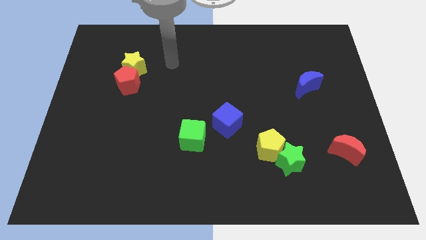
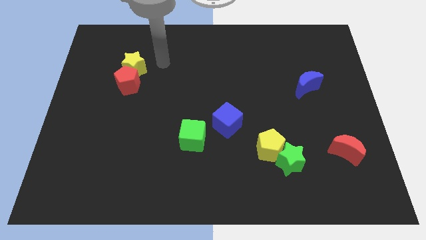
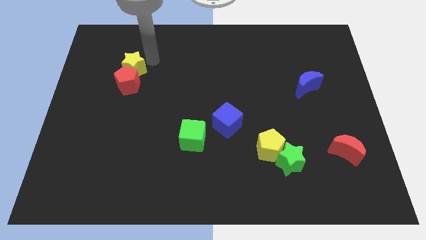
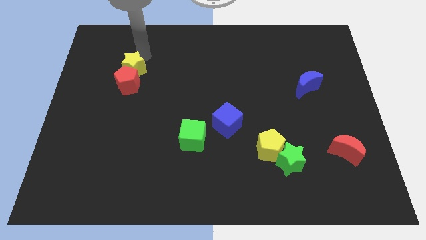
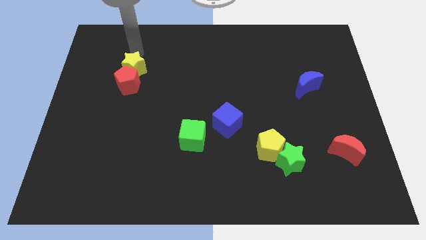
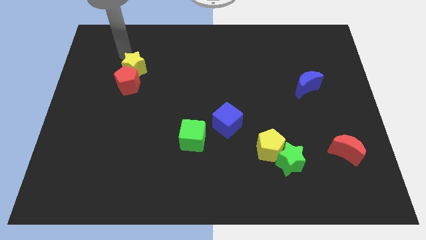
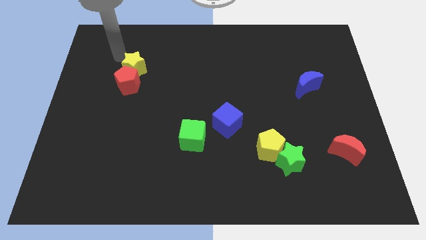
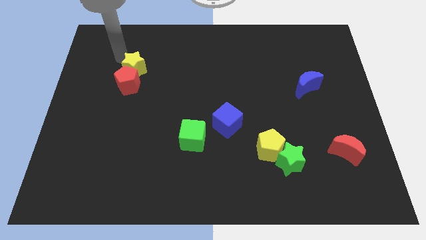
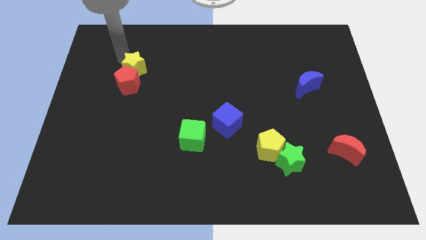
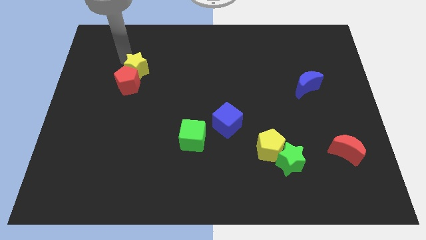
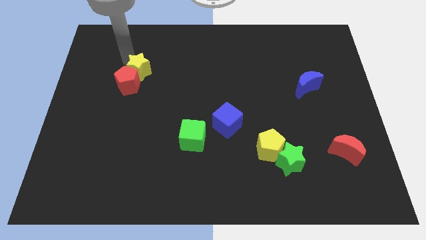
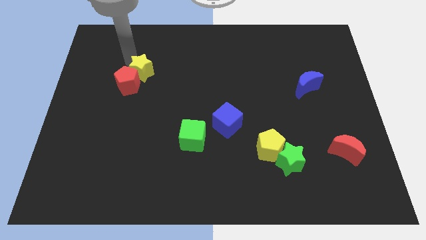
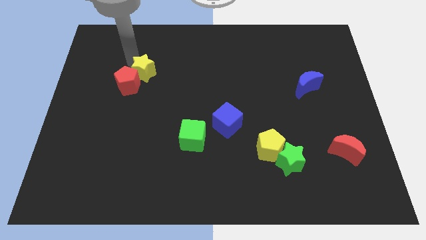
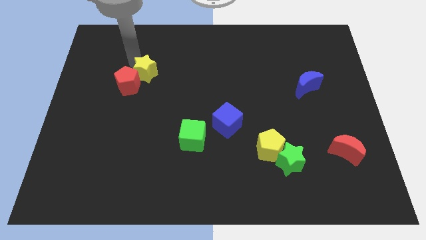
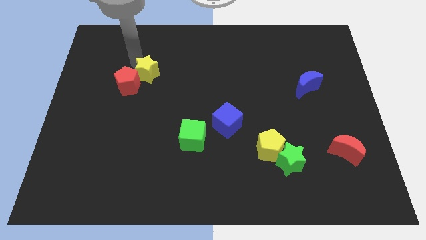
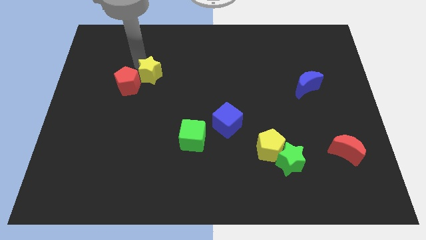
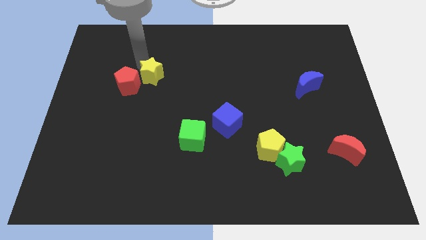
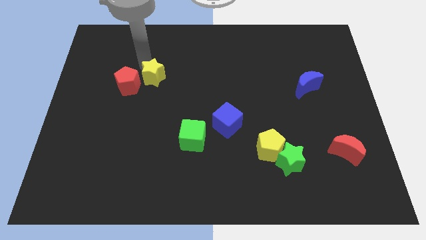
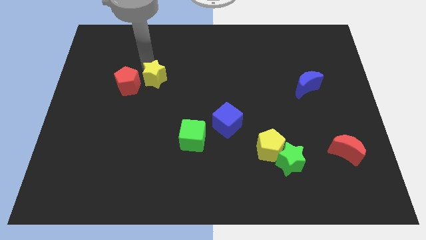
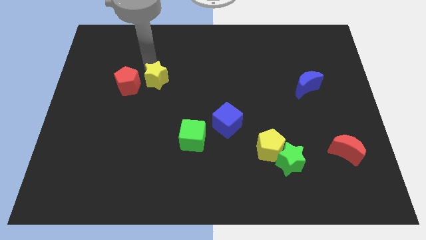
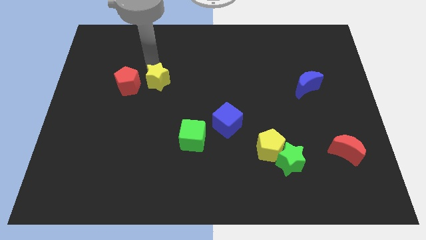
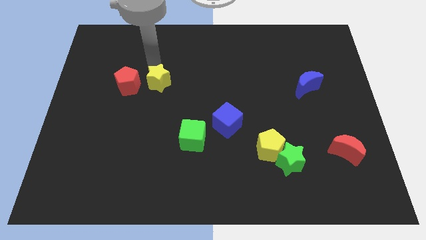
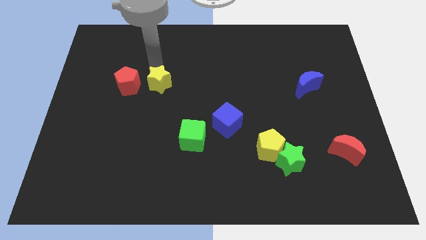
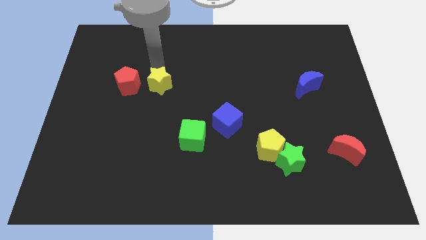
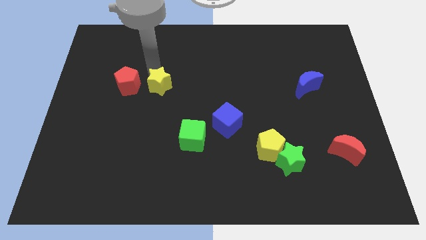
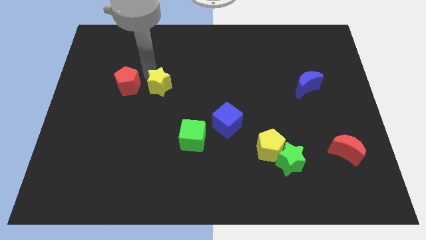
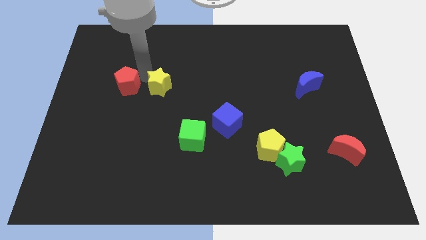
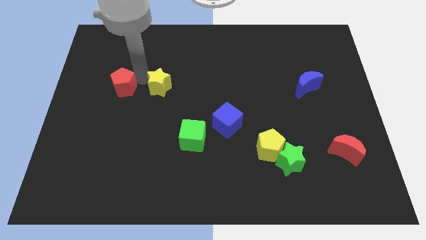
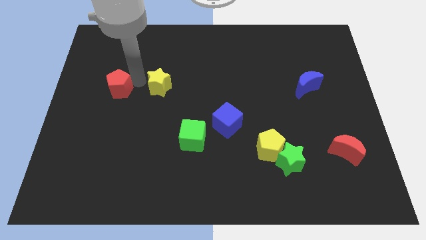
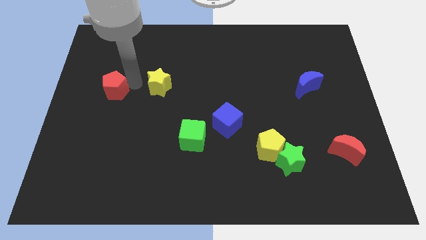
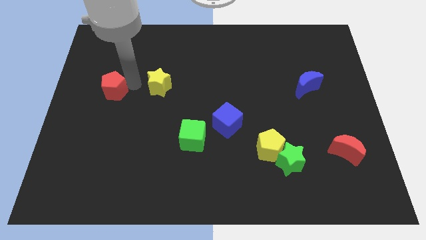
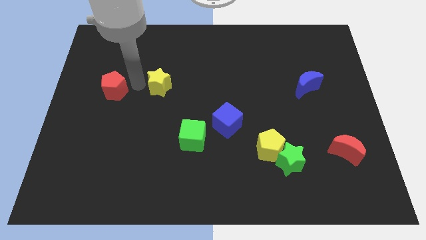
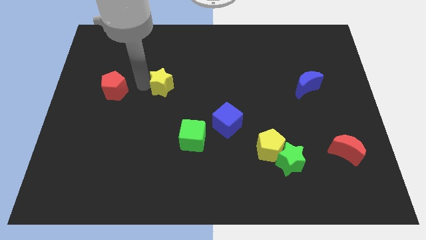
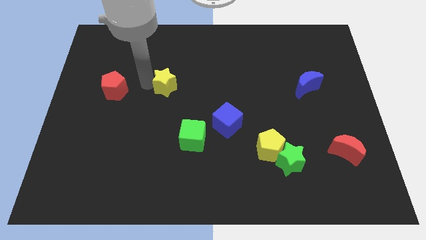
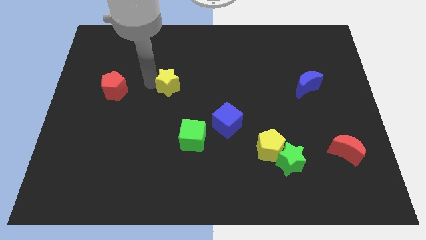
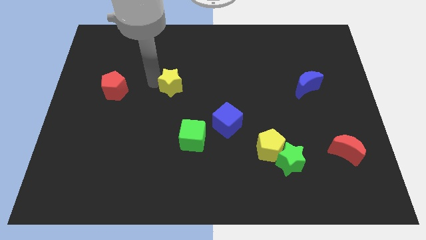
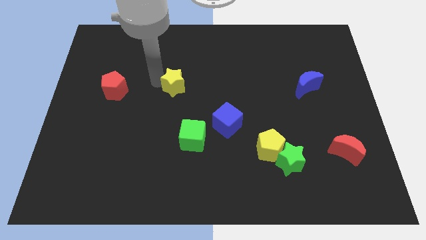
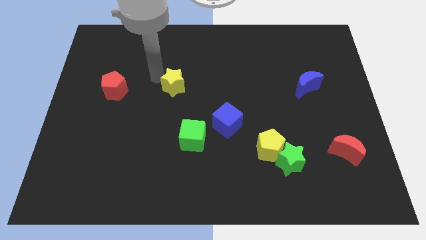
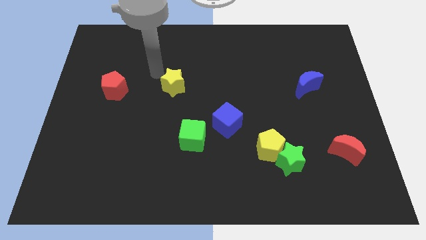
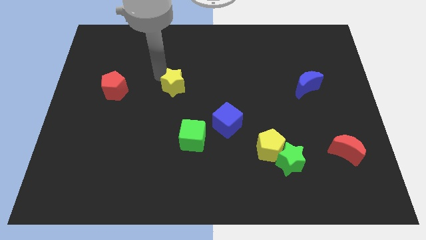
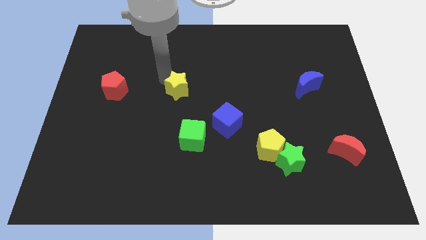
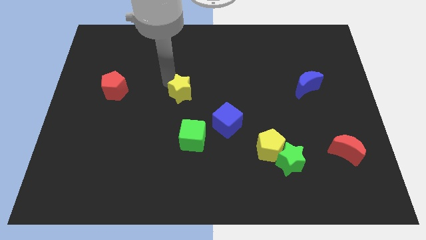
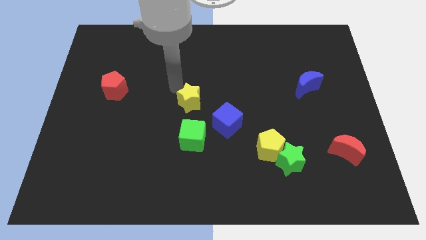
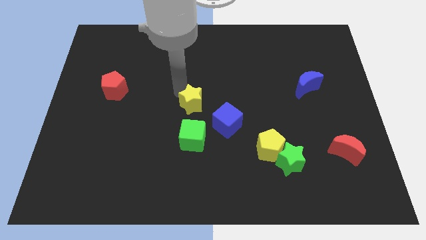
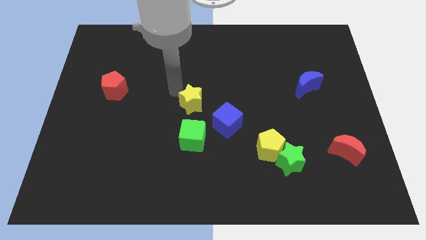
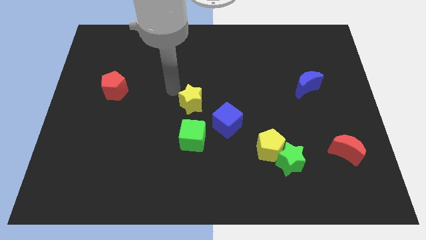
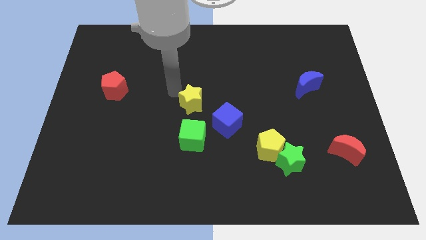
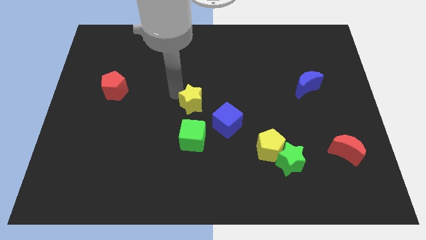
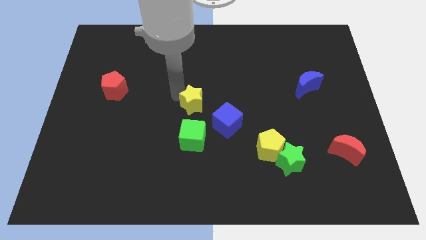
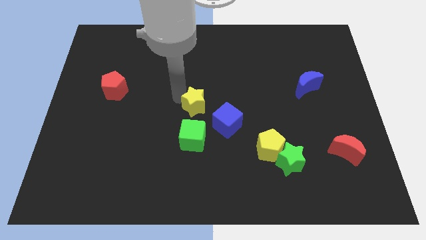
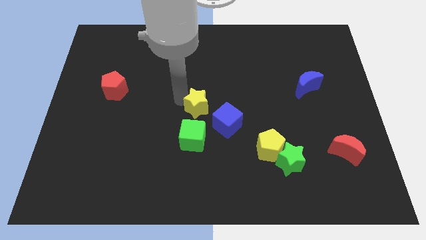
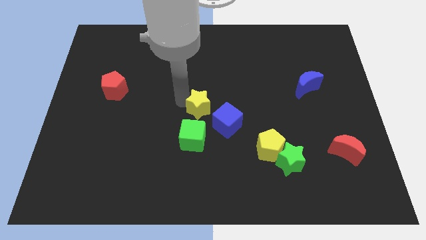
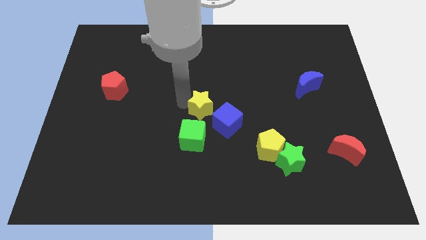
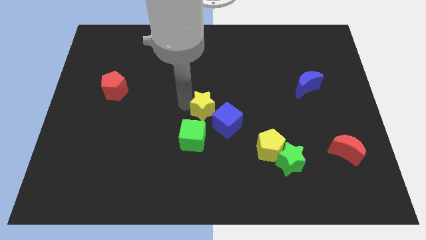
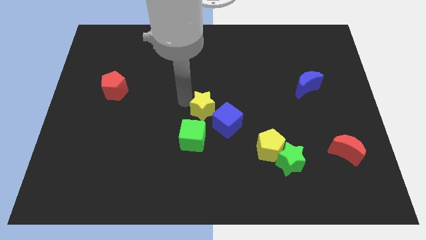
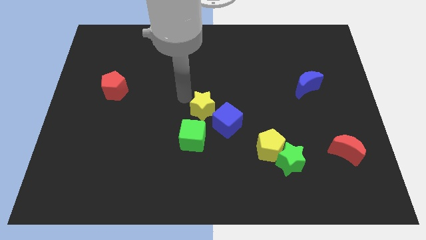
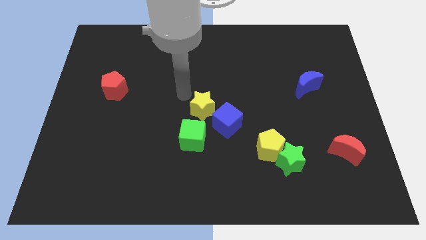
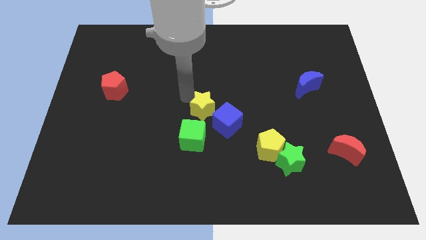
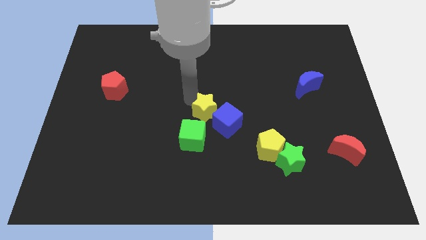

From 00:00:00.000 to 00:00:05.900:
put the yellow star close to the blue cube
